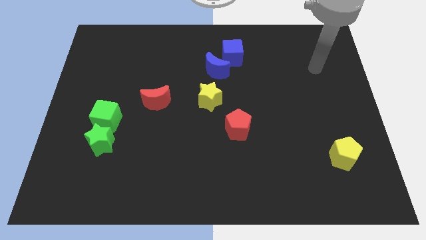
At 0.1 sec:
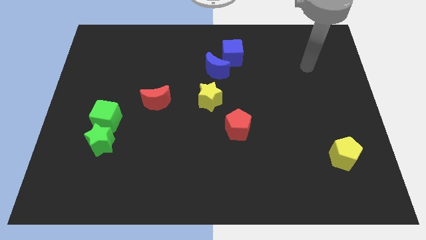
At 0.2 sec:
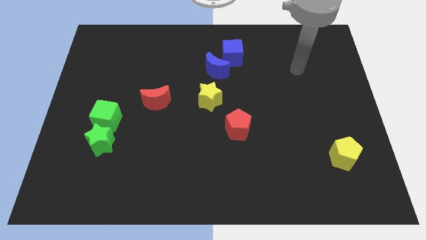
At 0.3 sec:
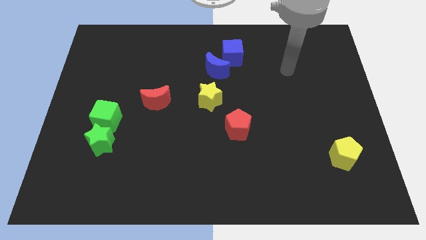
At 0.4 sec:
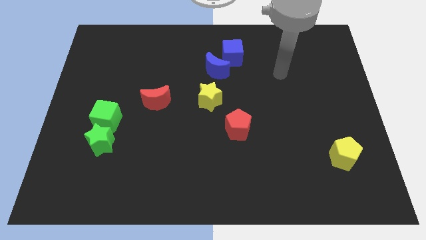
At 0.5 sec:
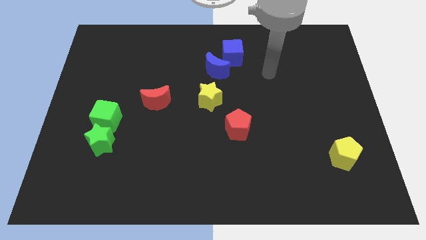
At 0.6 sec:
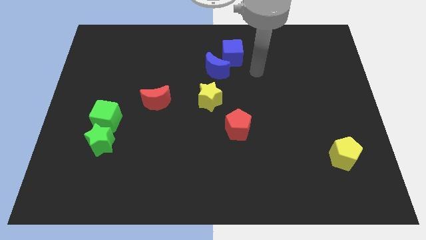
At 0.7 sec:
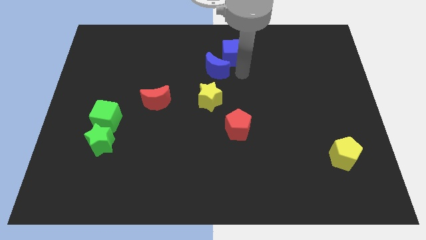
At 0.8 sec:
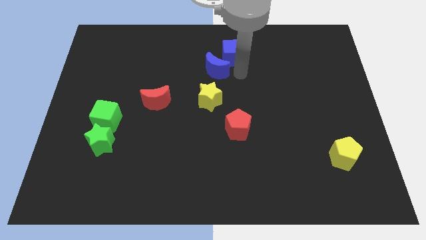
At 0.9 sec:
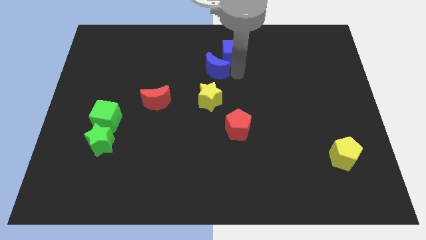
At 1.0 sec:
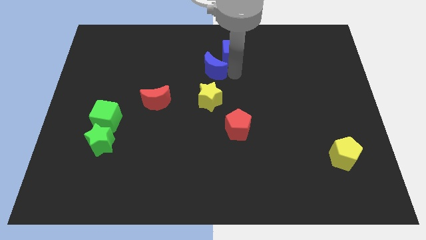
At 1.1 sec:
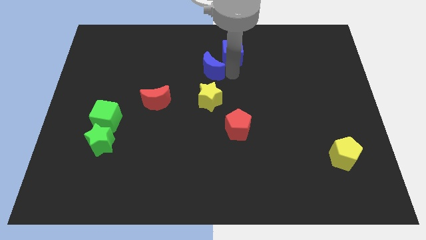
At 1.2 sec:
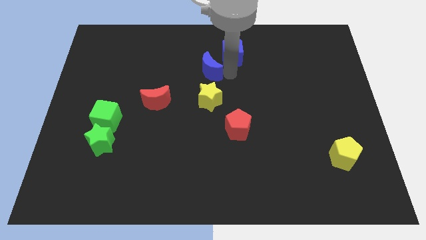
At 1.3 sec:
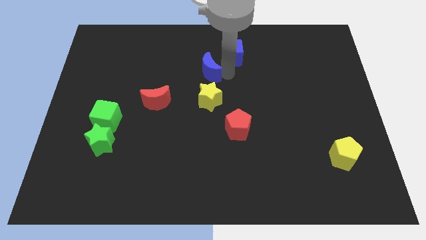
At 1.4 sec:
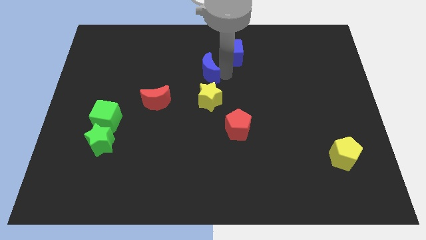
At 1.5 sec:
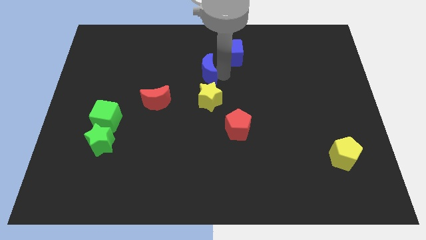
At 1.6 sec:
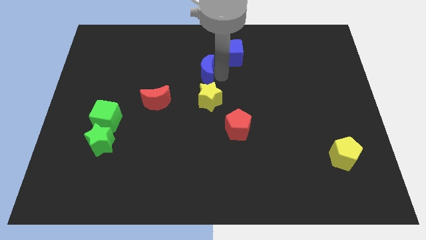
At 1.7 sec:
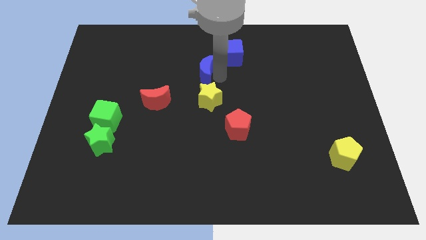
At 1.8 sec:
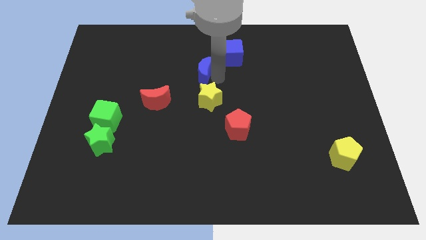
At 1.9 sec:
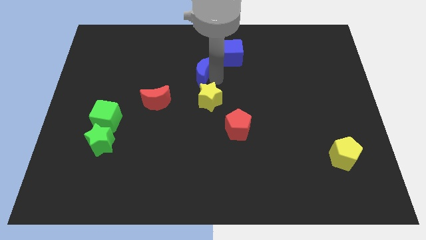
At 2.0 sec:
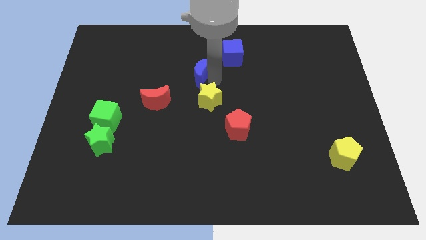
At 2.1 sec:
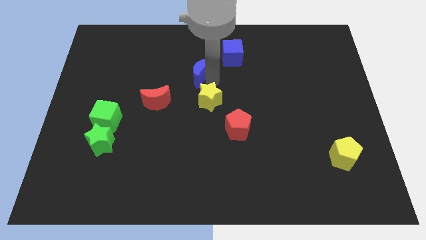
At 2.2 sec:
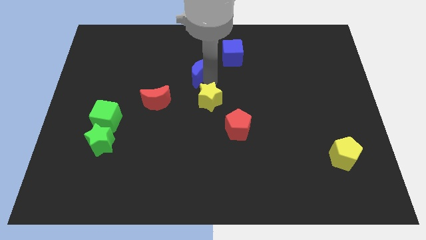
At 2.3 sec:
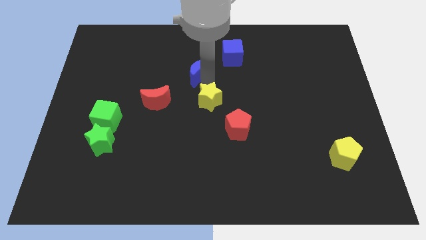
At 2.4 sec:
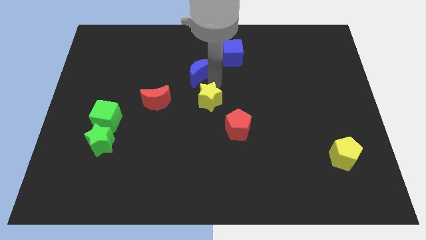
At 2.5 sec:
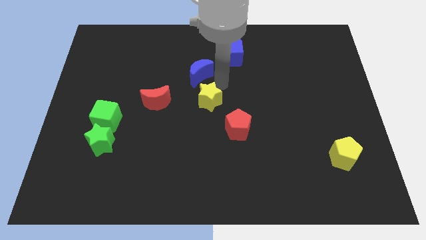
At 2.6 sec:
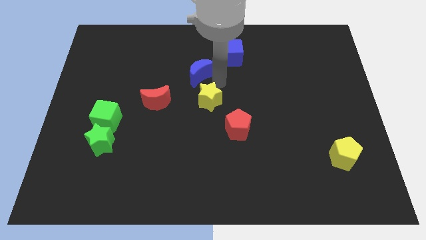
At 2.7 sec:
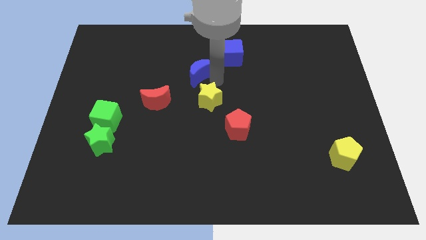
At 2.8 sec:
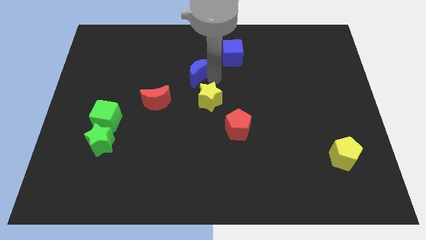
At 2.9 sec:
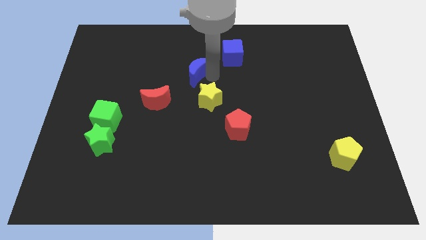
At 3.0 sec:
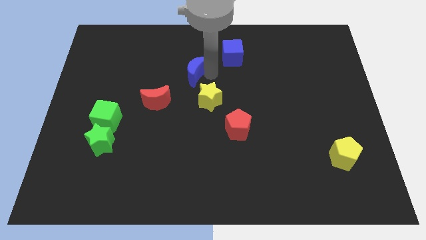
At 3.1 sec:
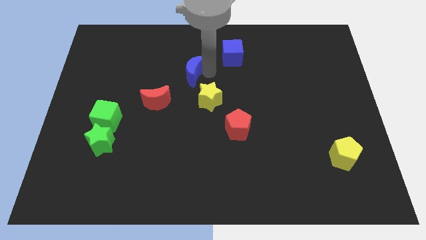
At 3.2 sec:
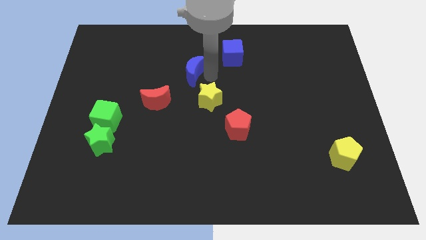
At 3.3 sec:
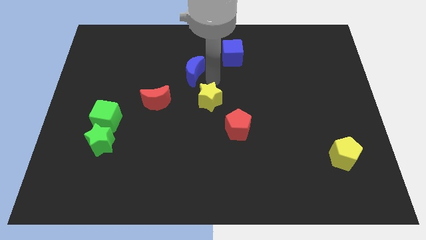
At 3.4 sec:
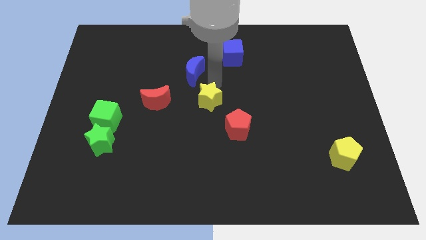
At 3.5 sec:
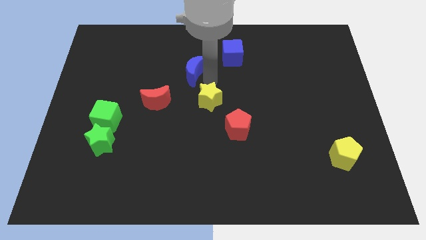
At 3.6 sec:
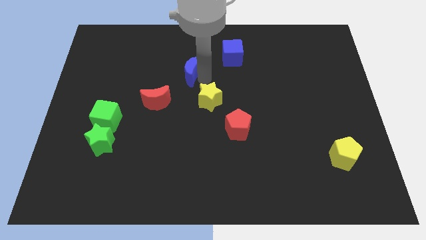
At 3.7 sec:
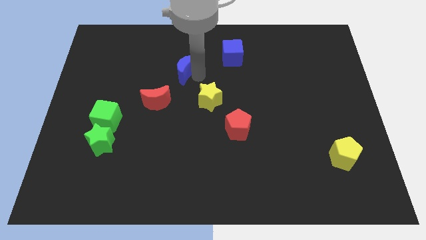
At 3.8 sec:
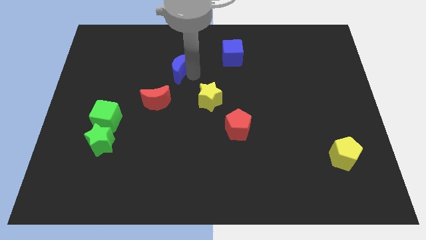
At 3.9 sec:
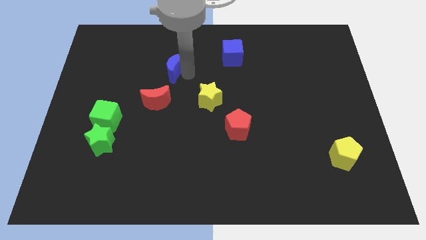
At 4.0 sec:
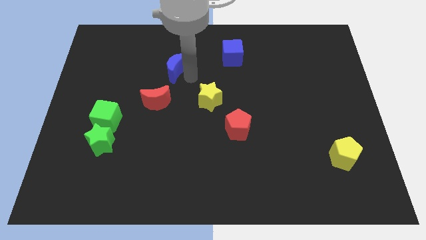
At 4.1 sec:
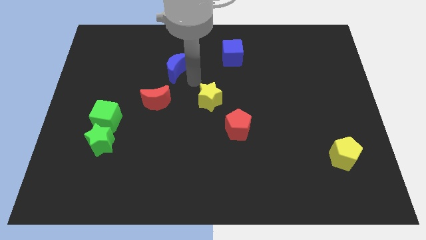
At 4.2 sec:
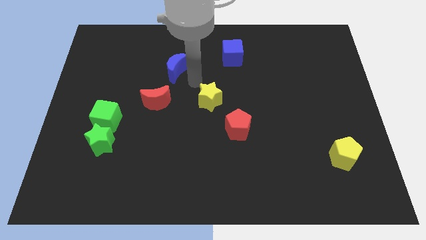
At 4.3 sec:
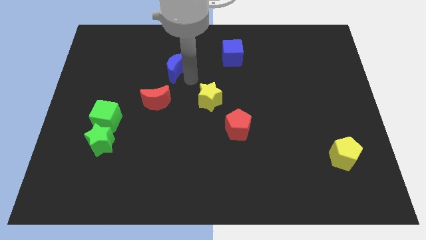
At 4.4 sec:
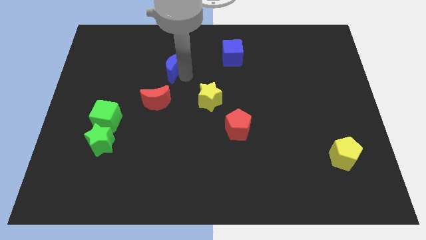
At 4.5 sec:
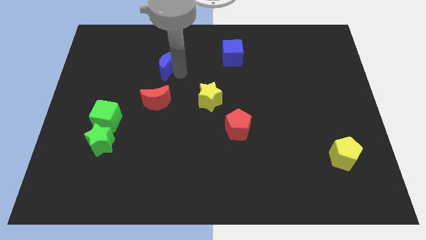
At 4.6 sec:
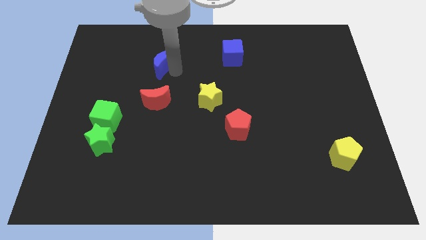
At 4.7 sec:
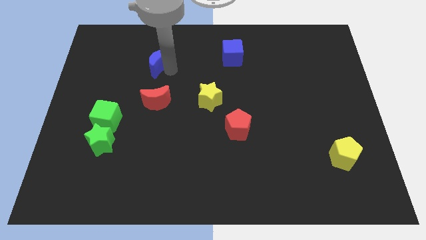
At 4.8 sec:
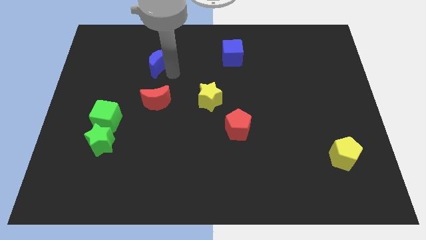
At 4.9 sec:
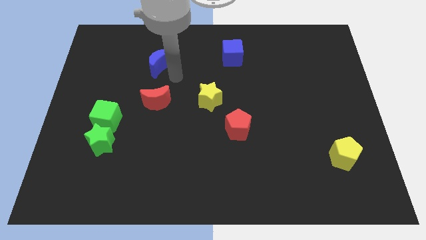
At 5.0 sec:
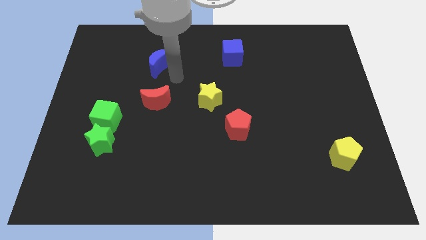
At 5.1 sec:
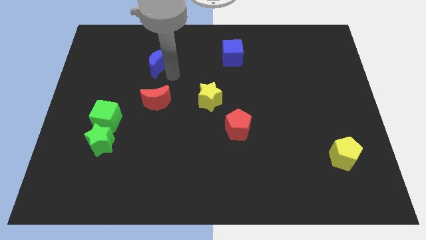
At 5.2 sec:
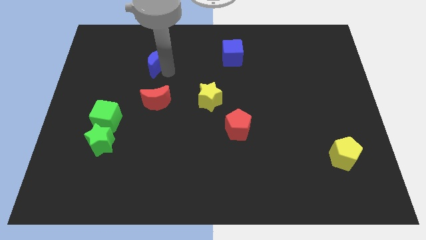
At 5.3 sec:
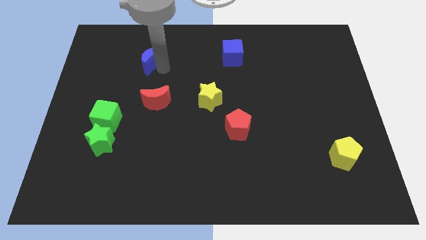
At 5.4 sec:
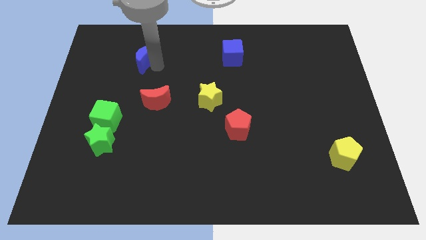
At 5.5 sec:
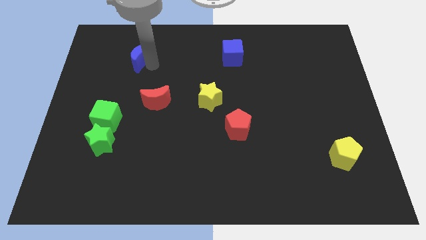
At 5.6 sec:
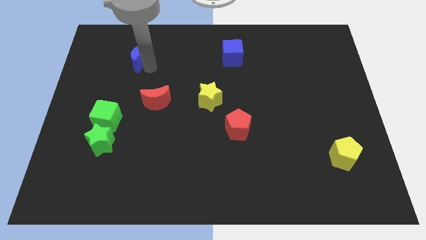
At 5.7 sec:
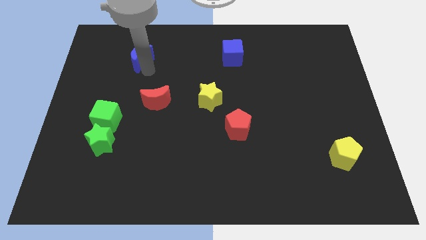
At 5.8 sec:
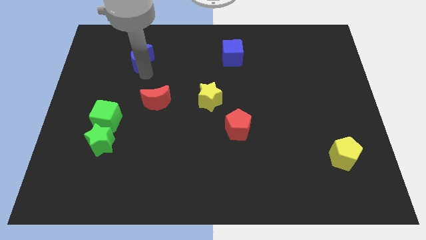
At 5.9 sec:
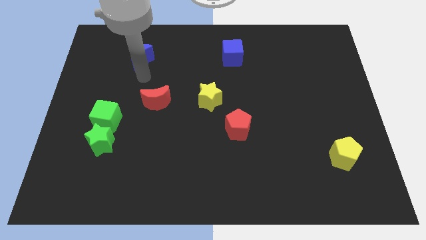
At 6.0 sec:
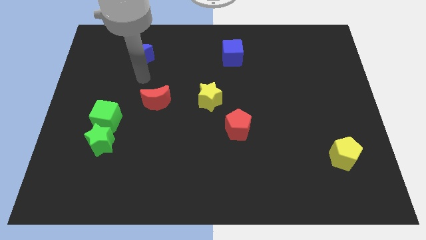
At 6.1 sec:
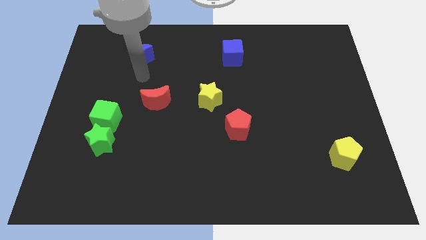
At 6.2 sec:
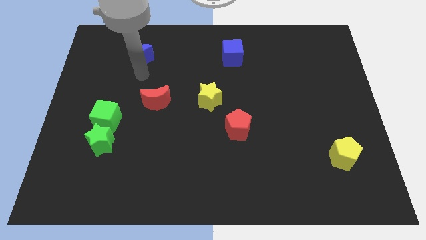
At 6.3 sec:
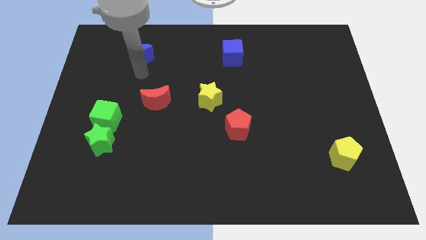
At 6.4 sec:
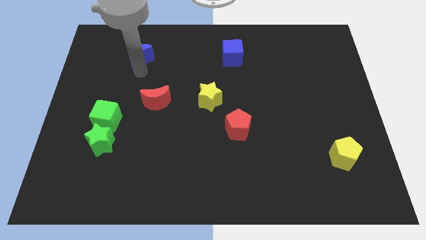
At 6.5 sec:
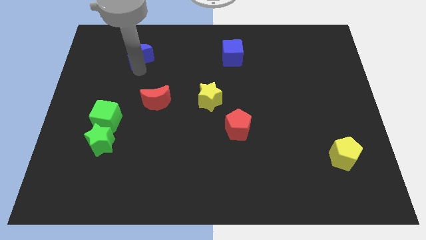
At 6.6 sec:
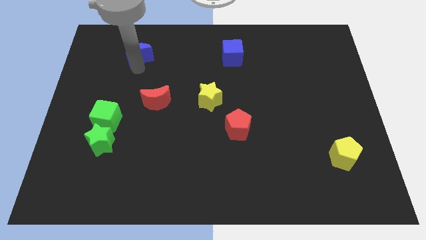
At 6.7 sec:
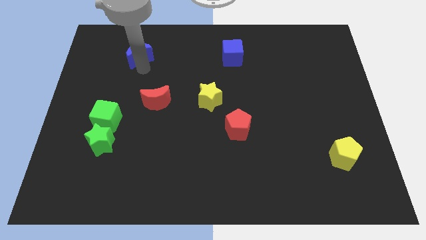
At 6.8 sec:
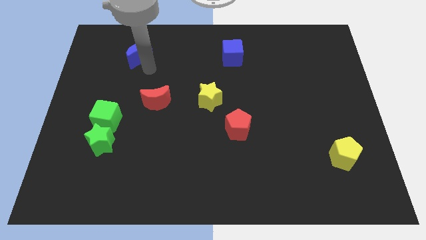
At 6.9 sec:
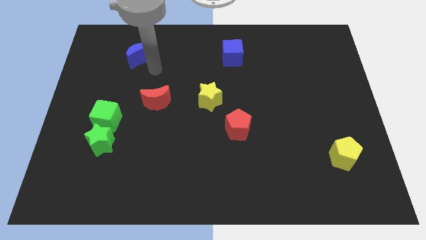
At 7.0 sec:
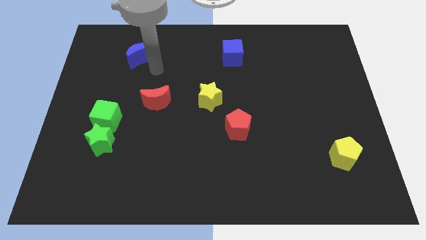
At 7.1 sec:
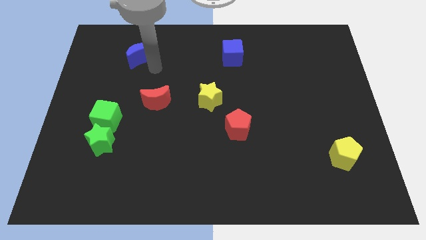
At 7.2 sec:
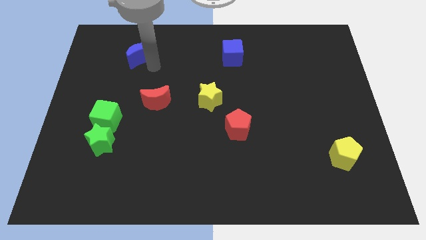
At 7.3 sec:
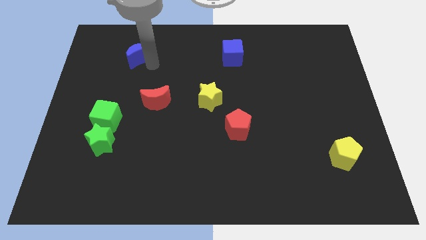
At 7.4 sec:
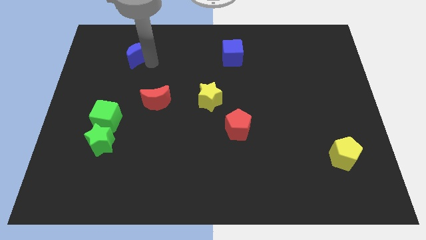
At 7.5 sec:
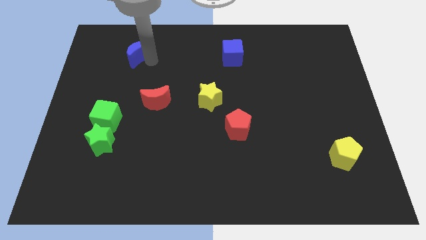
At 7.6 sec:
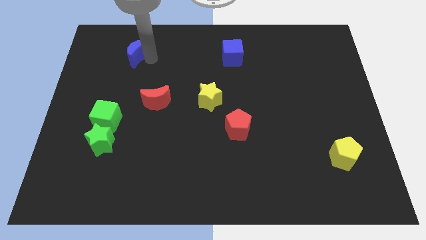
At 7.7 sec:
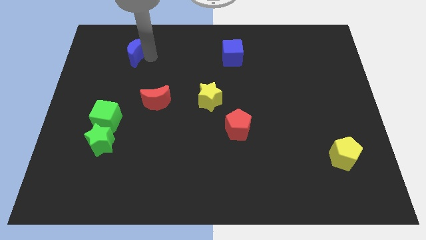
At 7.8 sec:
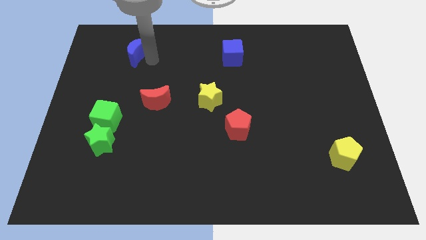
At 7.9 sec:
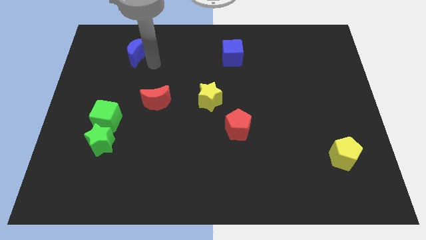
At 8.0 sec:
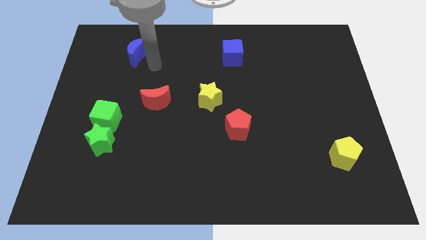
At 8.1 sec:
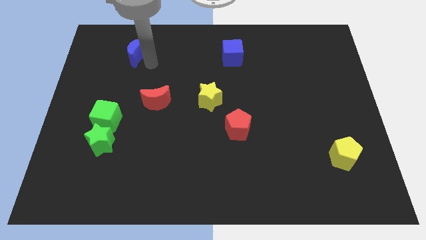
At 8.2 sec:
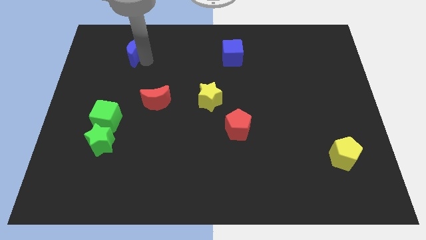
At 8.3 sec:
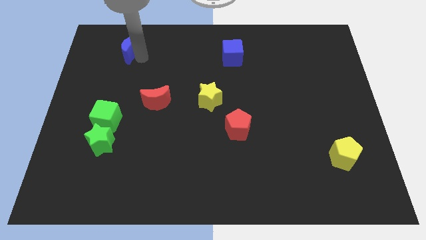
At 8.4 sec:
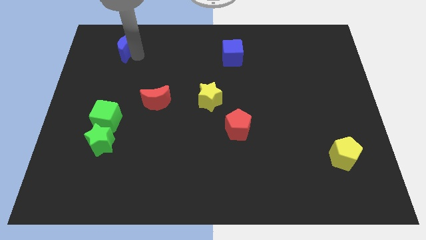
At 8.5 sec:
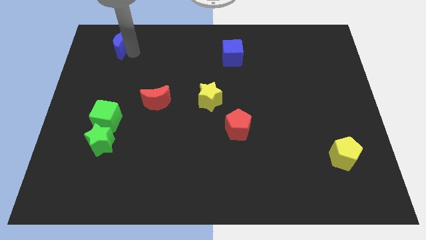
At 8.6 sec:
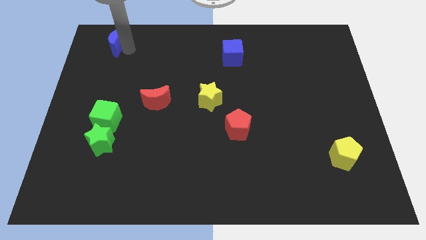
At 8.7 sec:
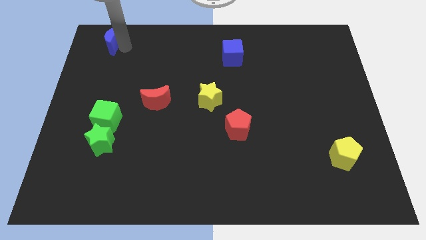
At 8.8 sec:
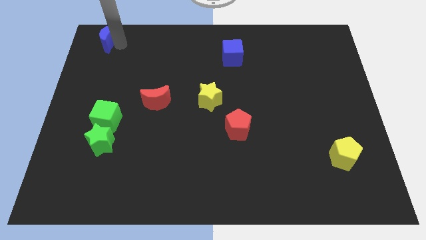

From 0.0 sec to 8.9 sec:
push the blue moon to the top left of the board
